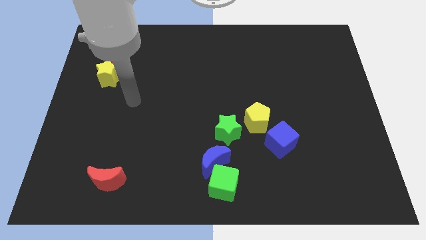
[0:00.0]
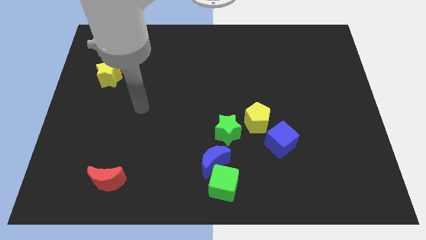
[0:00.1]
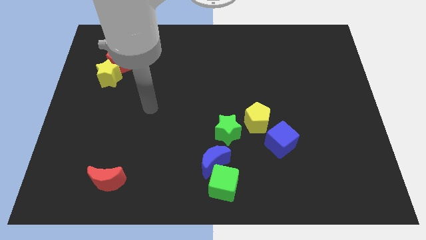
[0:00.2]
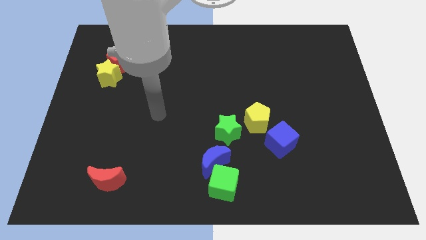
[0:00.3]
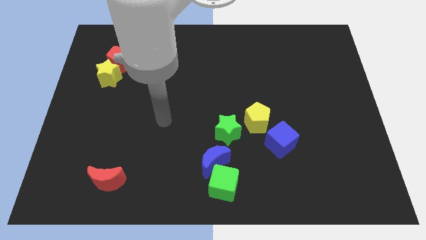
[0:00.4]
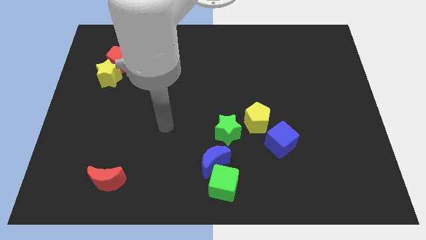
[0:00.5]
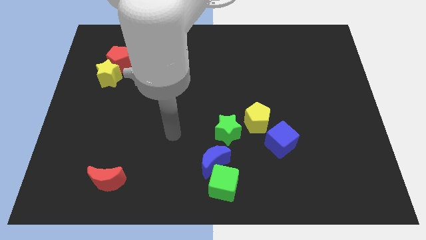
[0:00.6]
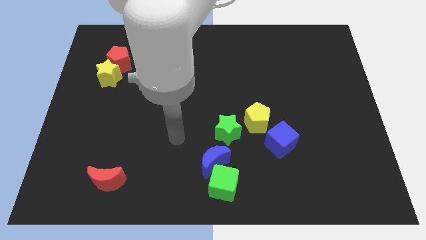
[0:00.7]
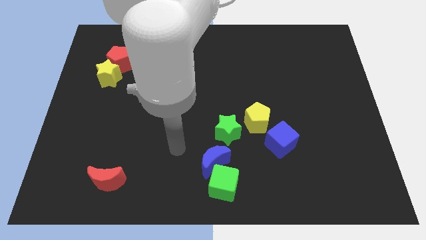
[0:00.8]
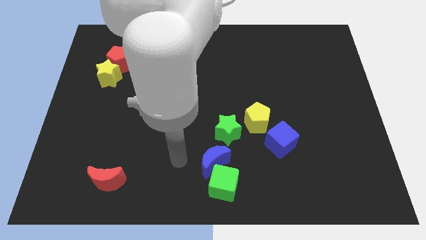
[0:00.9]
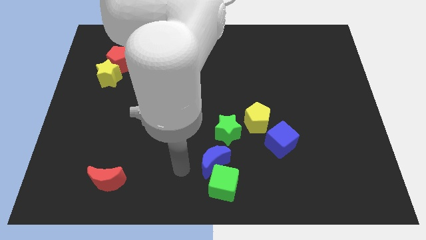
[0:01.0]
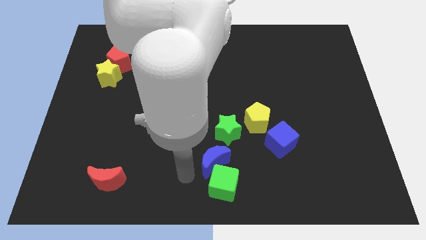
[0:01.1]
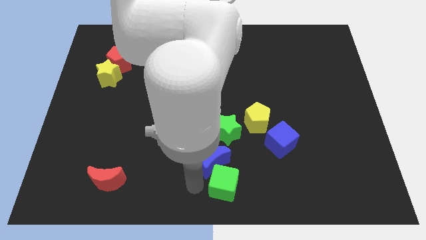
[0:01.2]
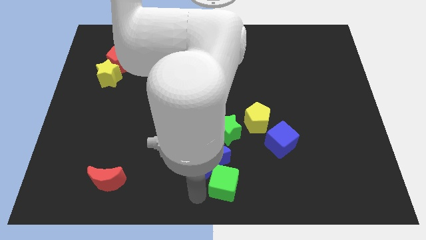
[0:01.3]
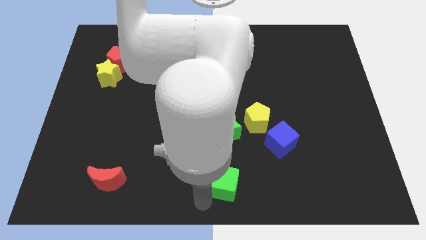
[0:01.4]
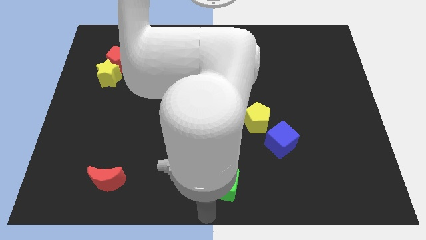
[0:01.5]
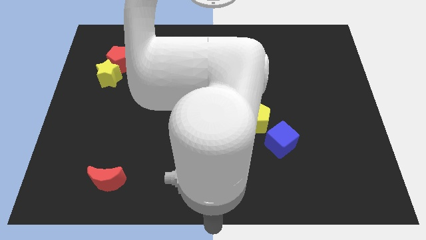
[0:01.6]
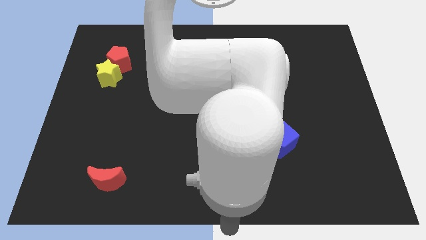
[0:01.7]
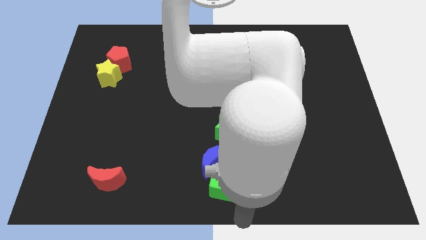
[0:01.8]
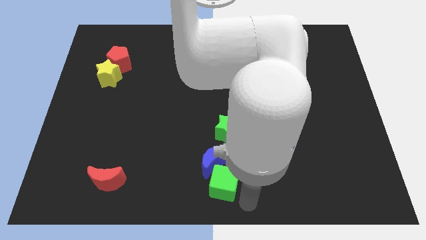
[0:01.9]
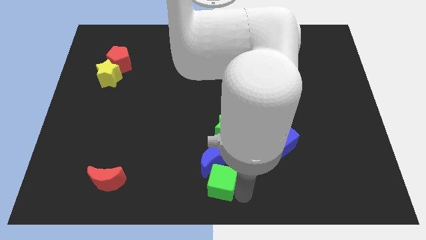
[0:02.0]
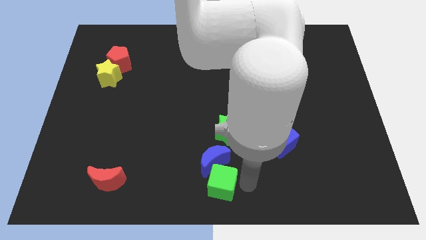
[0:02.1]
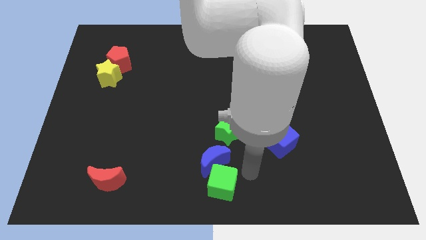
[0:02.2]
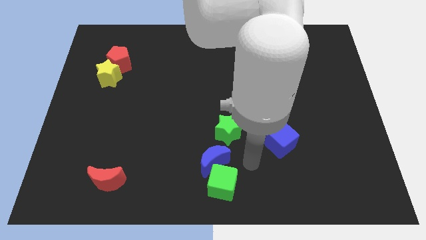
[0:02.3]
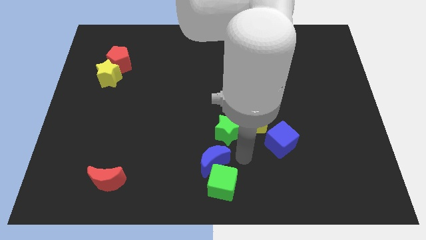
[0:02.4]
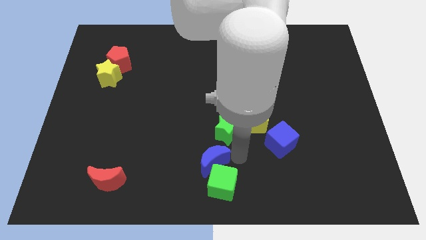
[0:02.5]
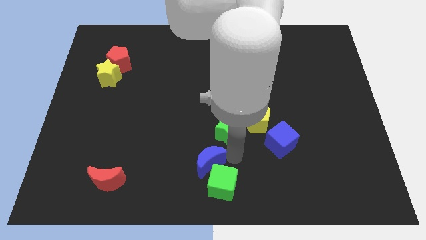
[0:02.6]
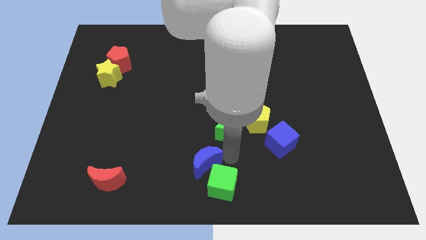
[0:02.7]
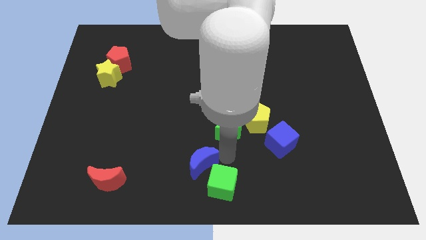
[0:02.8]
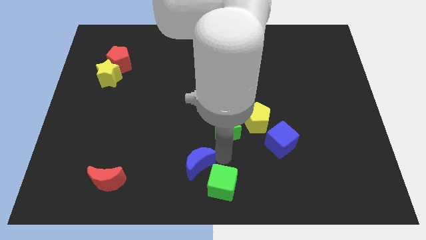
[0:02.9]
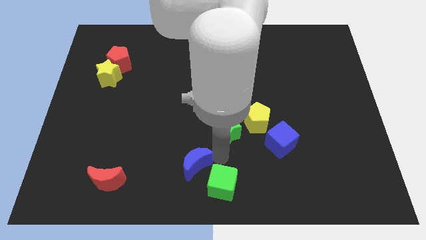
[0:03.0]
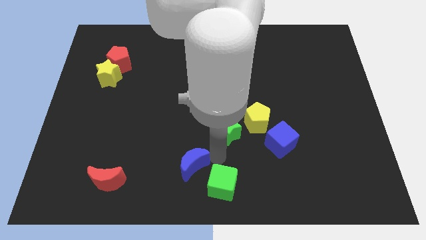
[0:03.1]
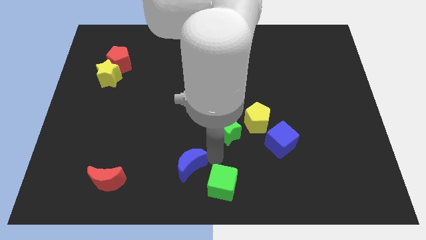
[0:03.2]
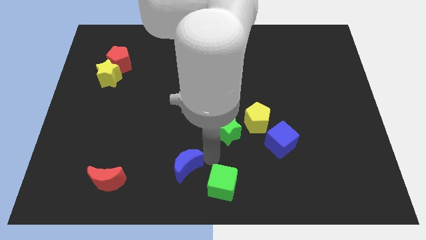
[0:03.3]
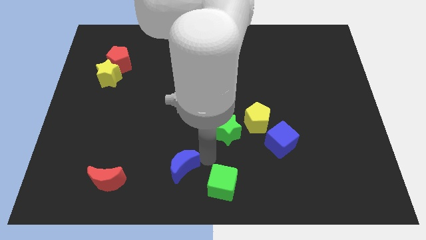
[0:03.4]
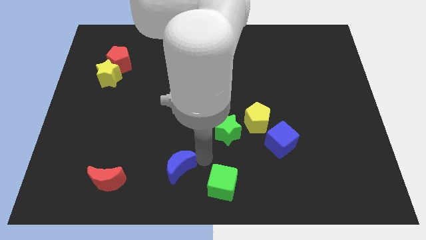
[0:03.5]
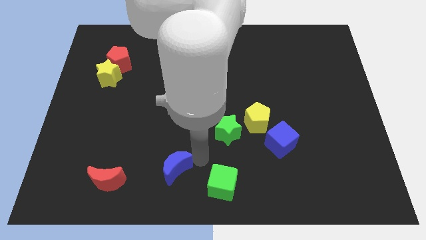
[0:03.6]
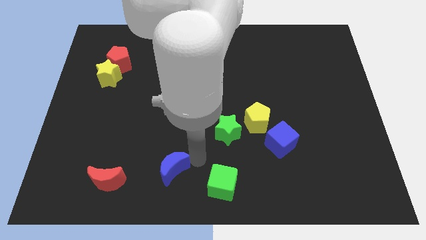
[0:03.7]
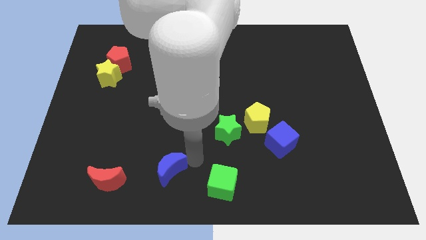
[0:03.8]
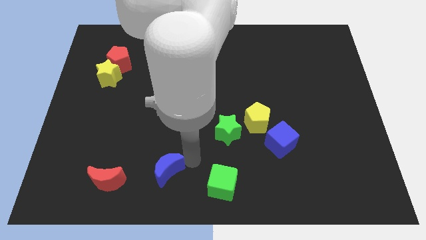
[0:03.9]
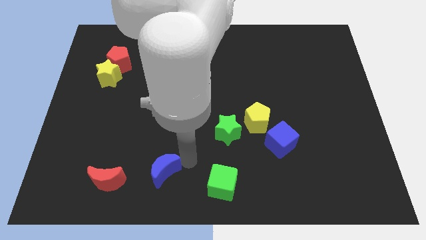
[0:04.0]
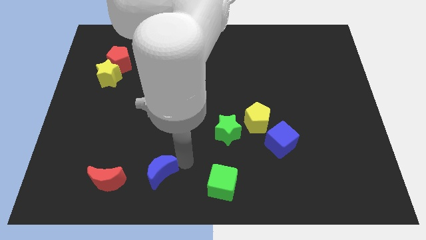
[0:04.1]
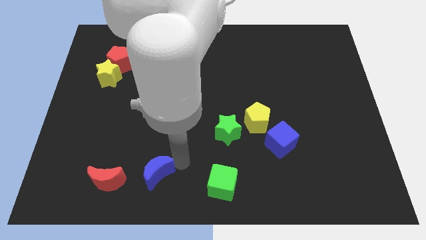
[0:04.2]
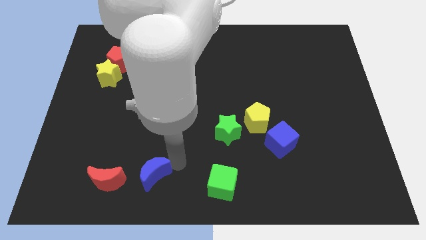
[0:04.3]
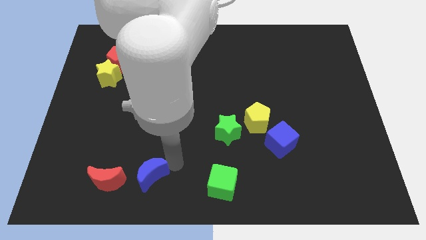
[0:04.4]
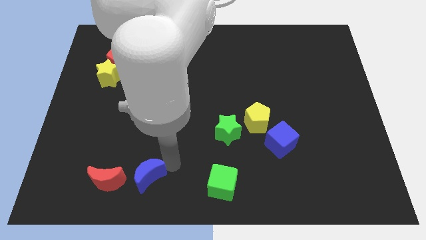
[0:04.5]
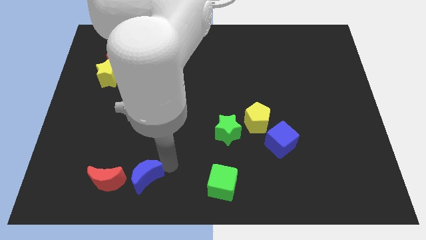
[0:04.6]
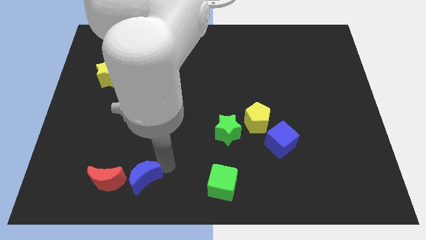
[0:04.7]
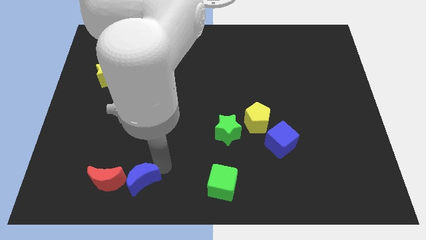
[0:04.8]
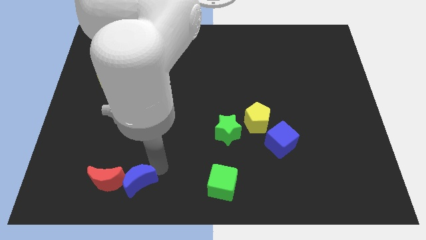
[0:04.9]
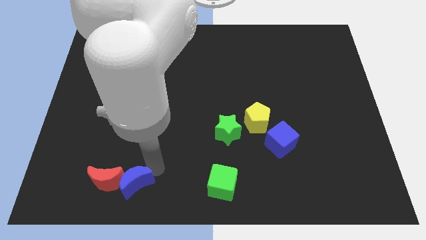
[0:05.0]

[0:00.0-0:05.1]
put the blue moon to the red moon

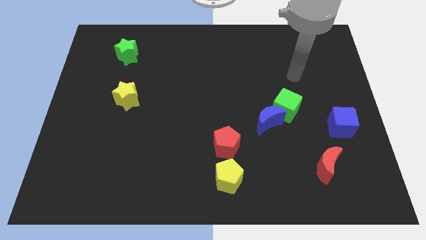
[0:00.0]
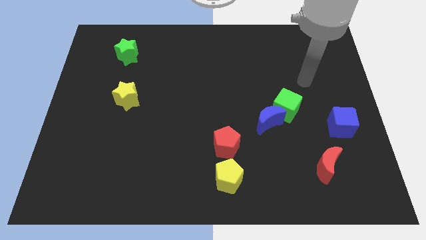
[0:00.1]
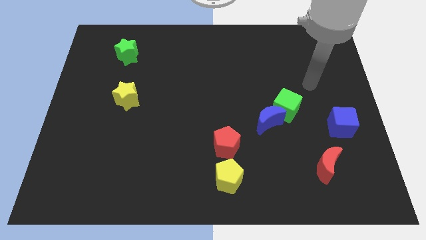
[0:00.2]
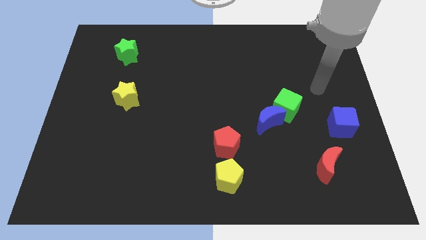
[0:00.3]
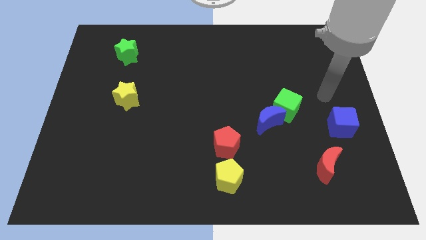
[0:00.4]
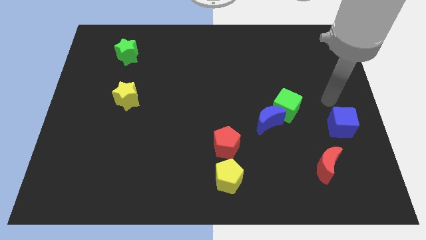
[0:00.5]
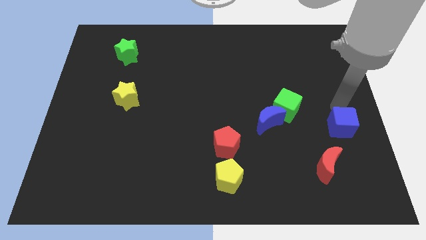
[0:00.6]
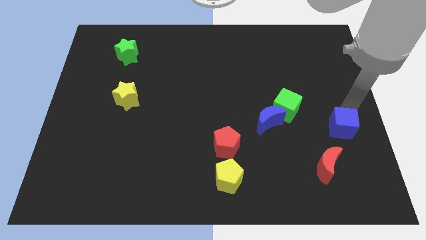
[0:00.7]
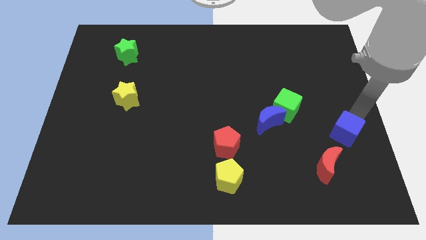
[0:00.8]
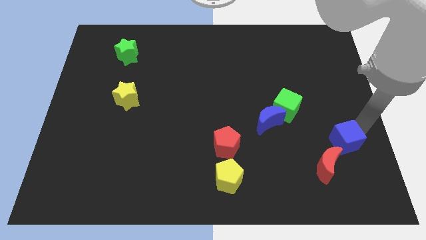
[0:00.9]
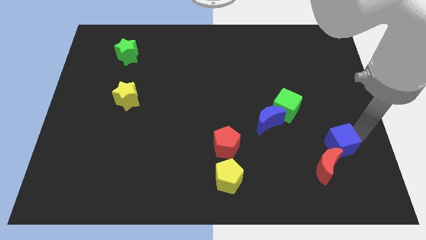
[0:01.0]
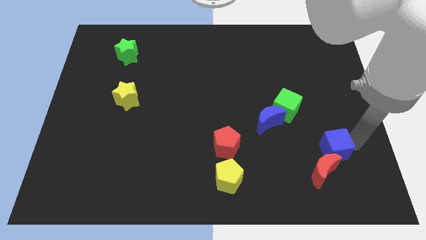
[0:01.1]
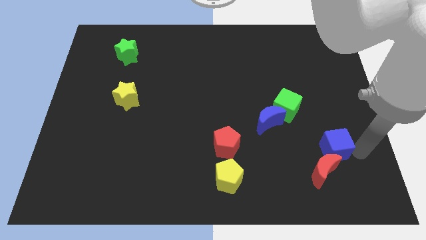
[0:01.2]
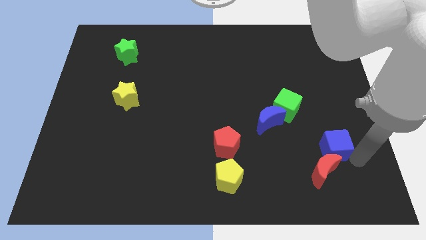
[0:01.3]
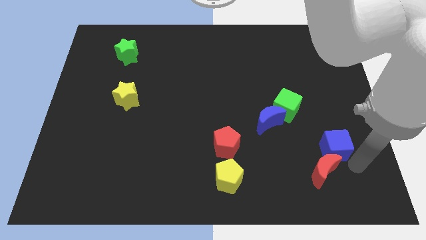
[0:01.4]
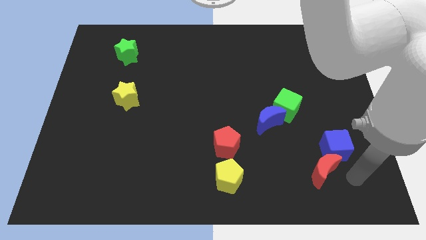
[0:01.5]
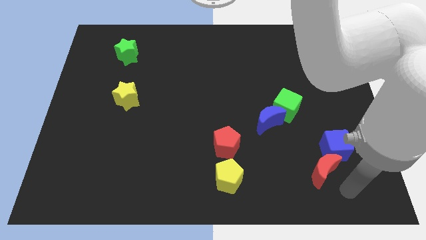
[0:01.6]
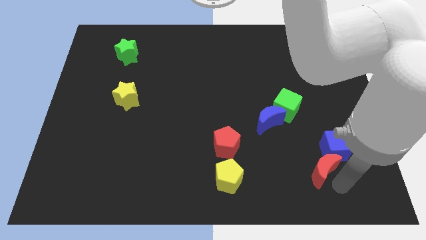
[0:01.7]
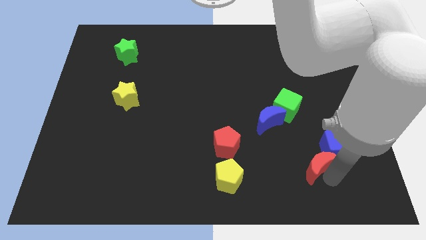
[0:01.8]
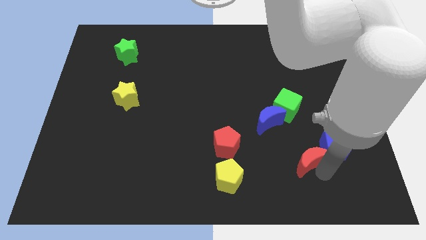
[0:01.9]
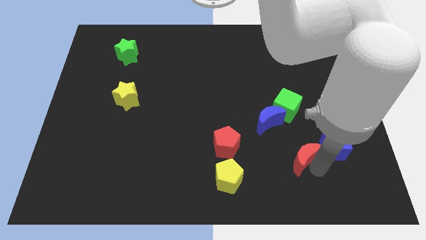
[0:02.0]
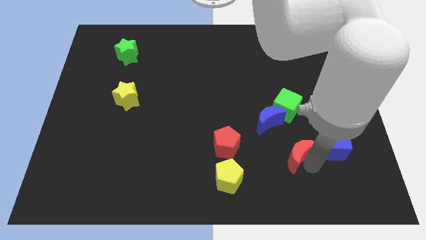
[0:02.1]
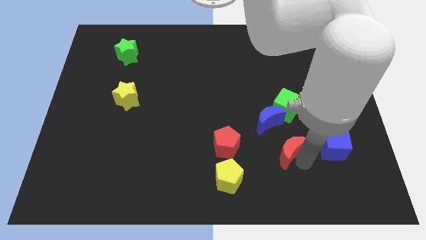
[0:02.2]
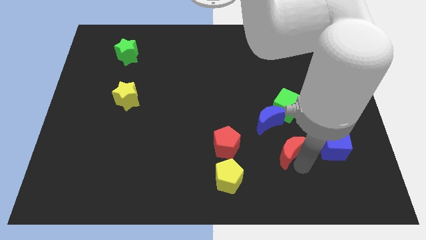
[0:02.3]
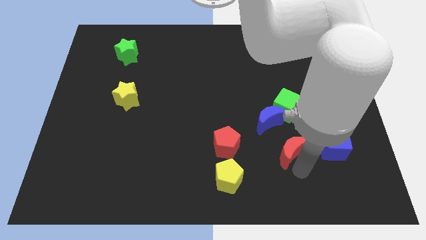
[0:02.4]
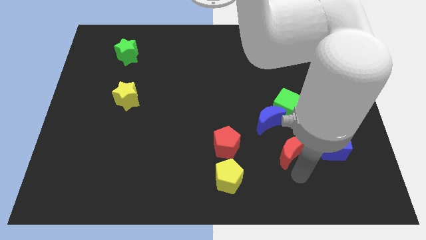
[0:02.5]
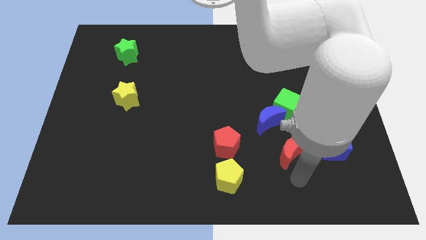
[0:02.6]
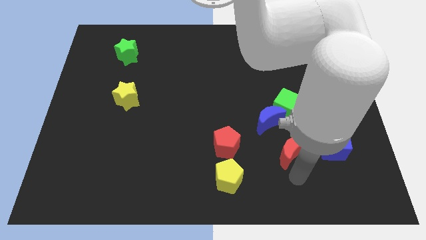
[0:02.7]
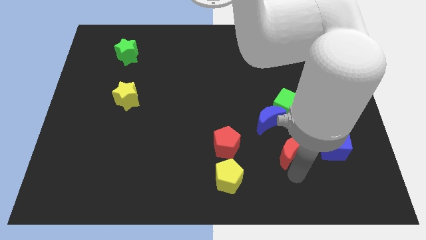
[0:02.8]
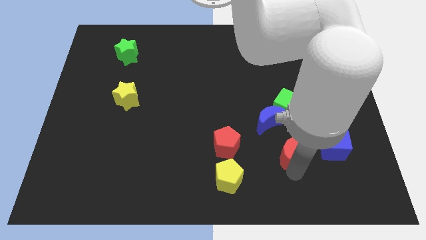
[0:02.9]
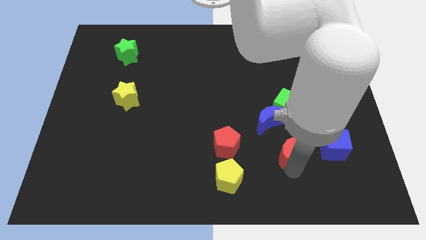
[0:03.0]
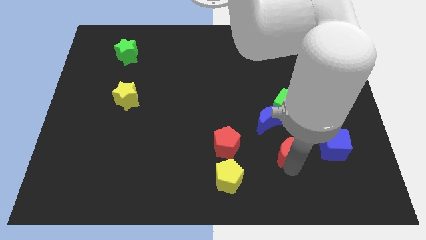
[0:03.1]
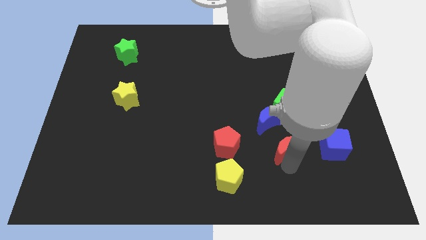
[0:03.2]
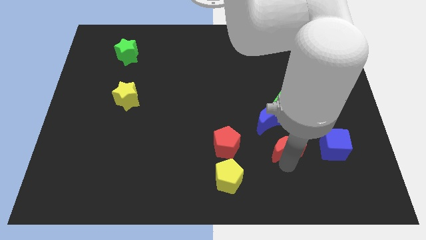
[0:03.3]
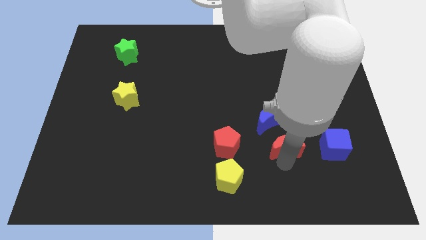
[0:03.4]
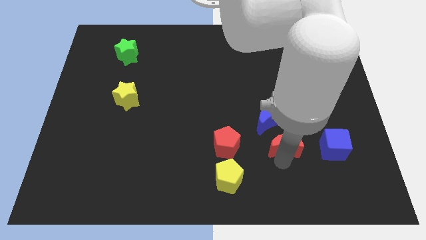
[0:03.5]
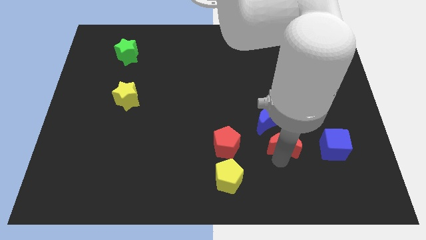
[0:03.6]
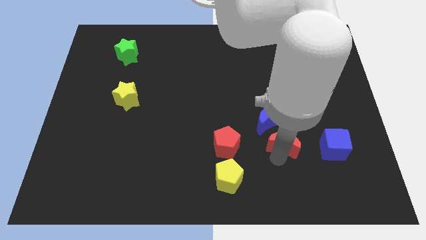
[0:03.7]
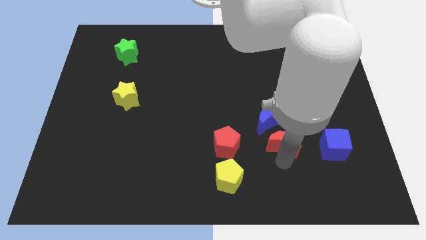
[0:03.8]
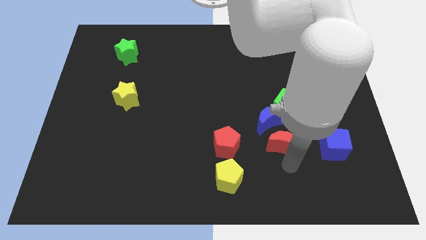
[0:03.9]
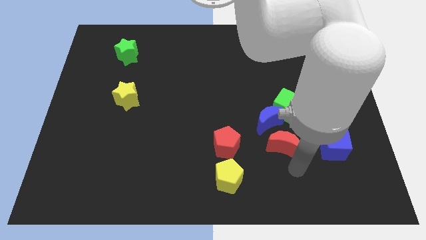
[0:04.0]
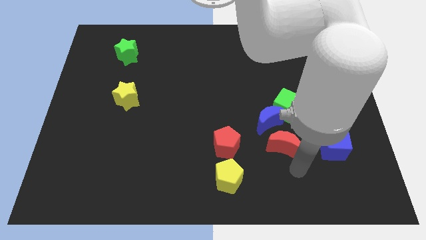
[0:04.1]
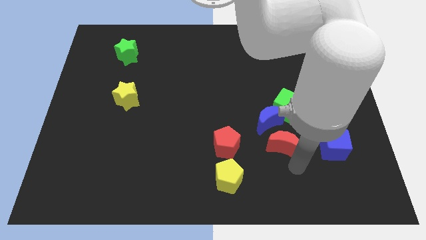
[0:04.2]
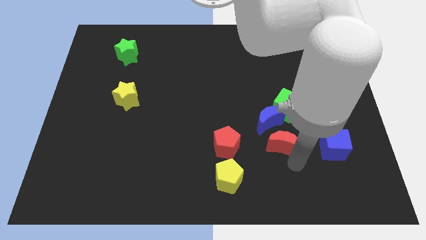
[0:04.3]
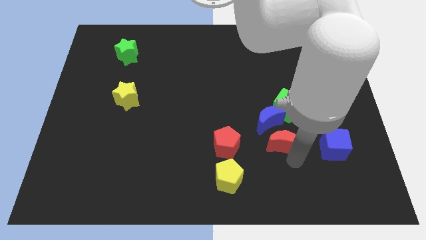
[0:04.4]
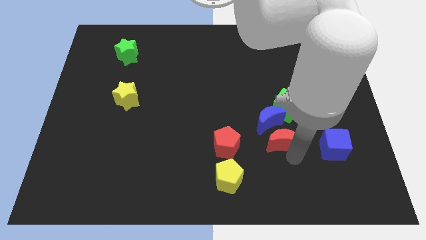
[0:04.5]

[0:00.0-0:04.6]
push the red moon close to the blue moon
